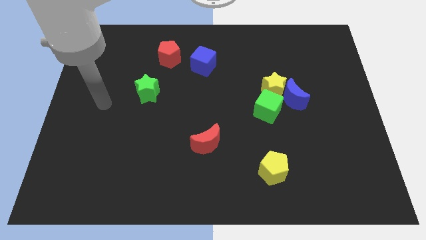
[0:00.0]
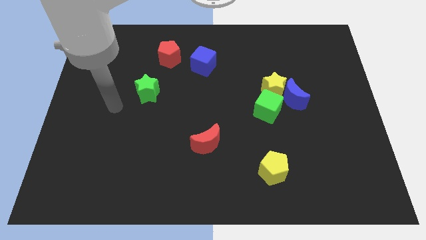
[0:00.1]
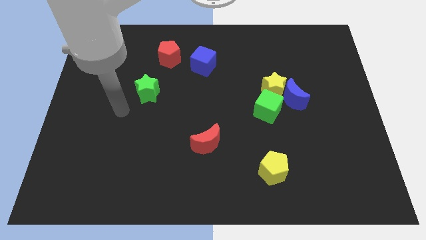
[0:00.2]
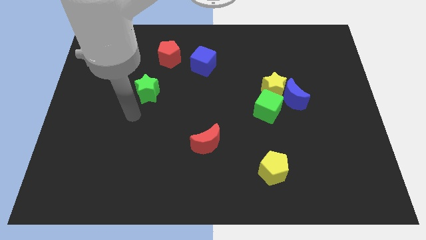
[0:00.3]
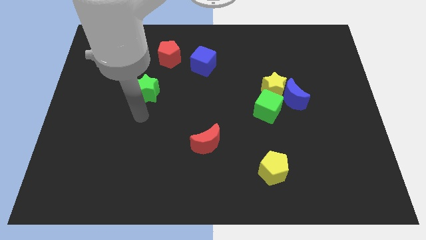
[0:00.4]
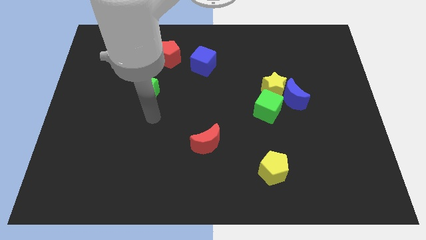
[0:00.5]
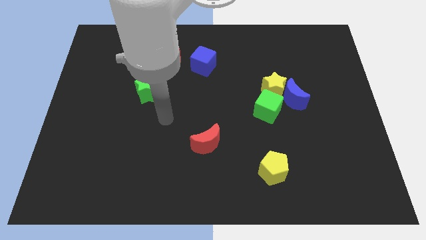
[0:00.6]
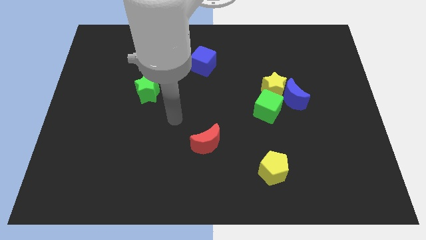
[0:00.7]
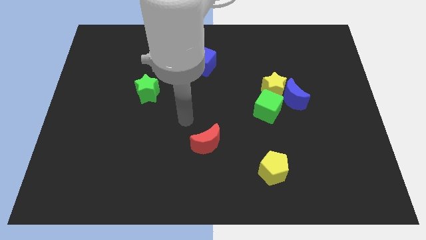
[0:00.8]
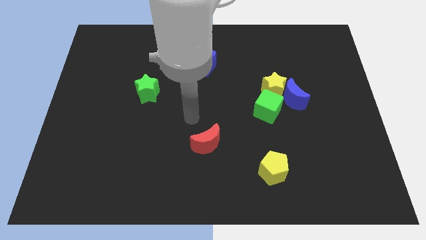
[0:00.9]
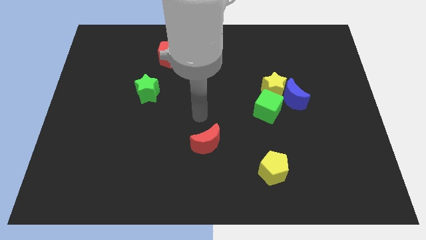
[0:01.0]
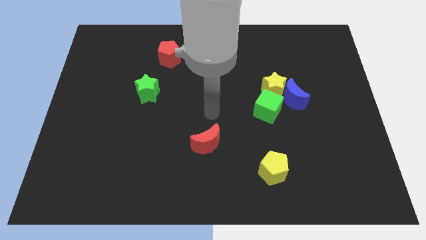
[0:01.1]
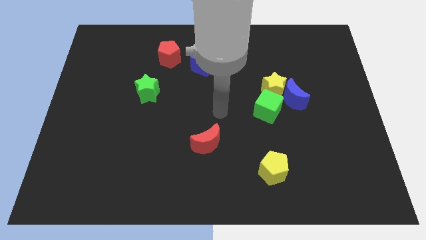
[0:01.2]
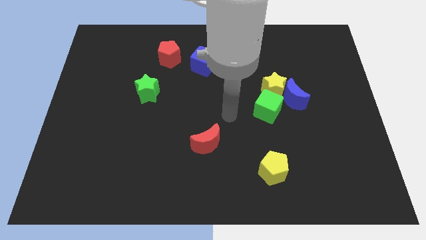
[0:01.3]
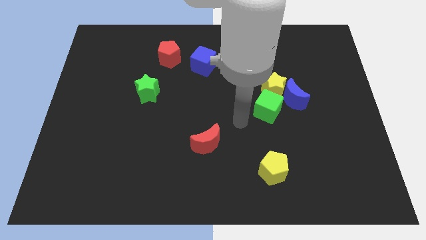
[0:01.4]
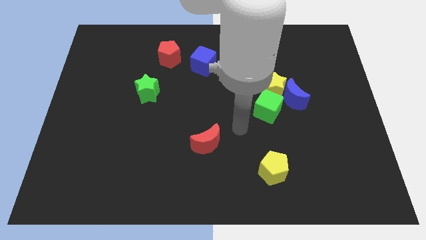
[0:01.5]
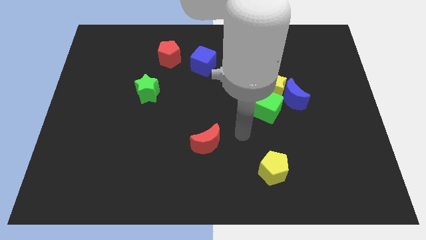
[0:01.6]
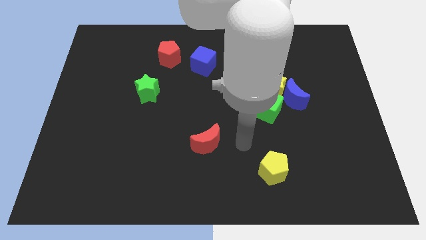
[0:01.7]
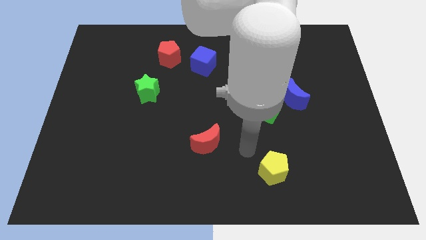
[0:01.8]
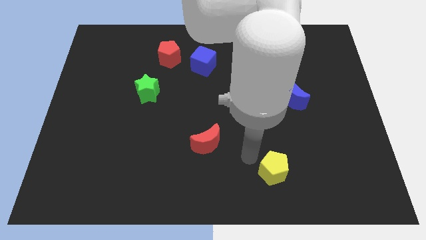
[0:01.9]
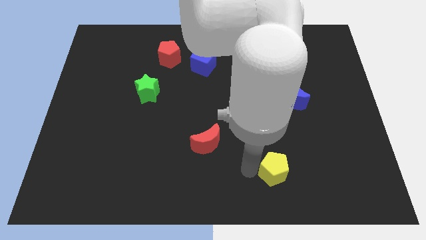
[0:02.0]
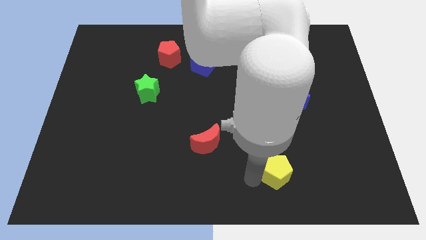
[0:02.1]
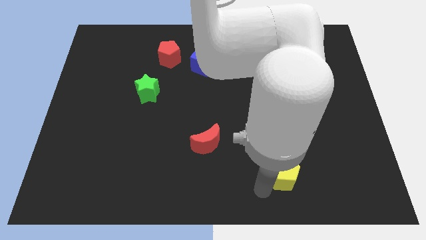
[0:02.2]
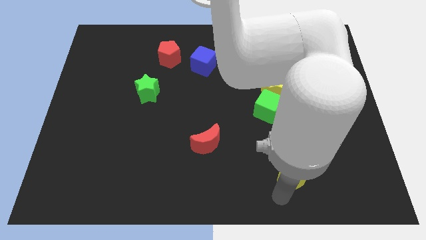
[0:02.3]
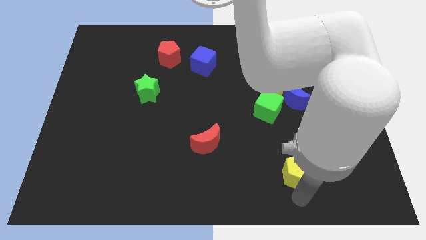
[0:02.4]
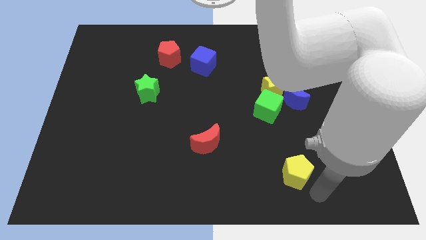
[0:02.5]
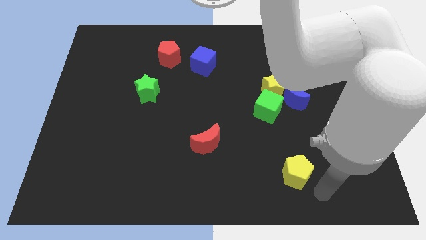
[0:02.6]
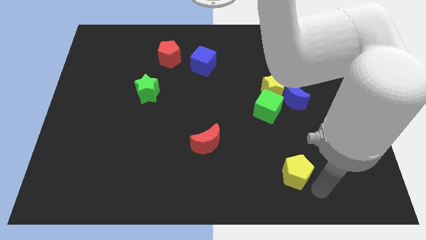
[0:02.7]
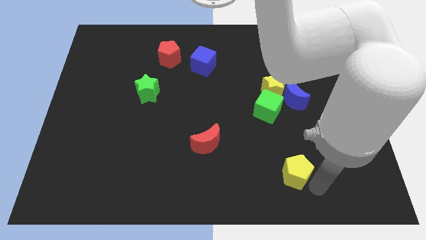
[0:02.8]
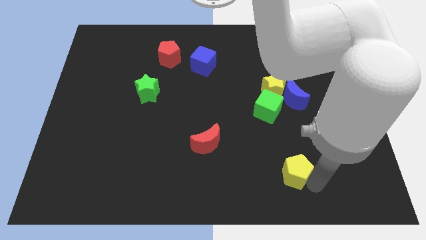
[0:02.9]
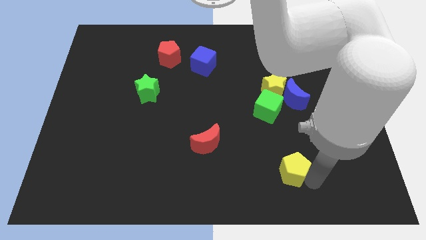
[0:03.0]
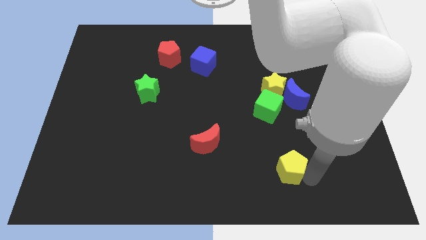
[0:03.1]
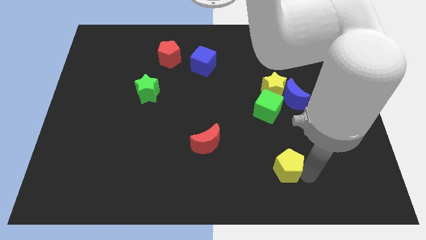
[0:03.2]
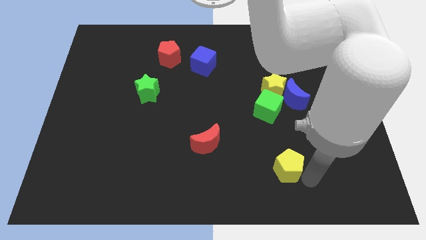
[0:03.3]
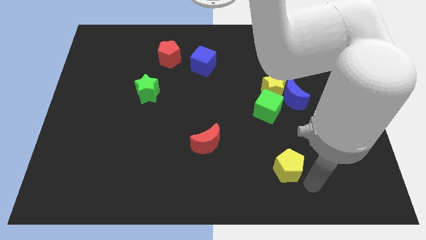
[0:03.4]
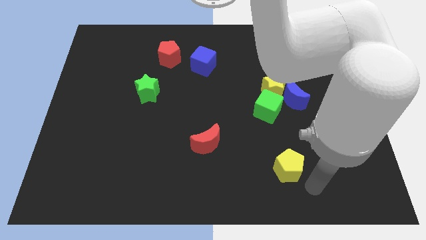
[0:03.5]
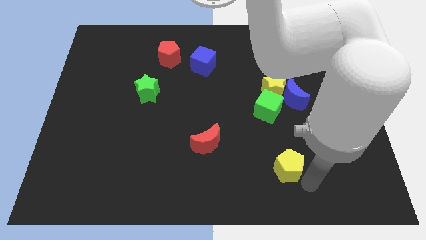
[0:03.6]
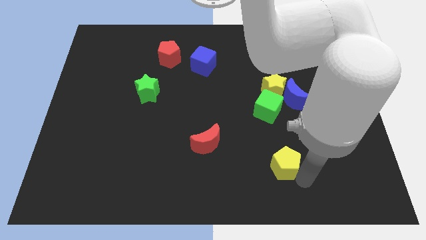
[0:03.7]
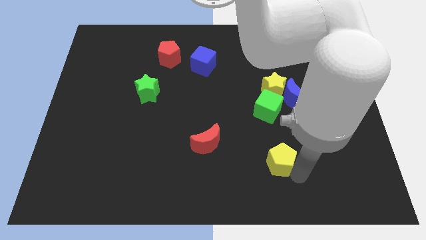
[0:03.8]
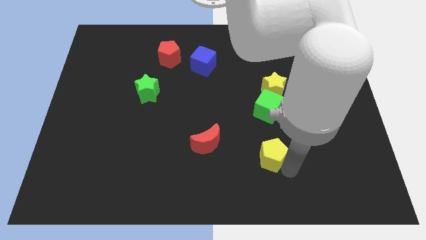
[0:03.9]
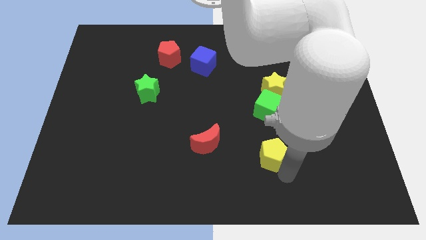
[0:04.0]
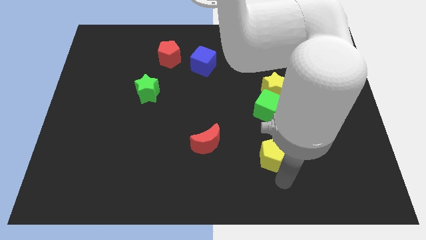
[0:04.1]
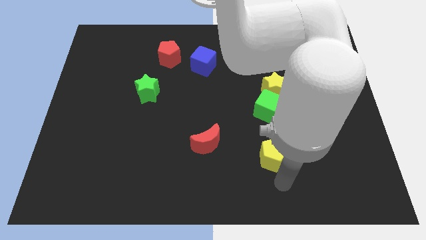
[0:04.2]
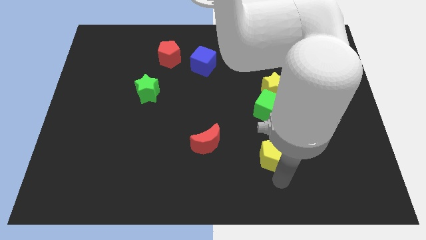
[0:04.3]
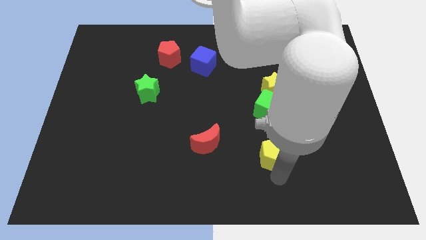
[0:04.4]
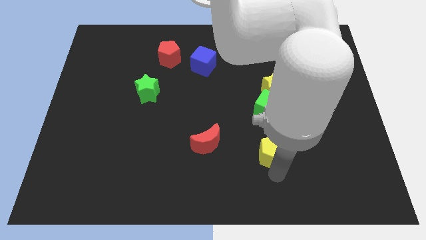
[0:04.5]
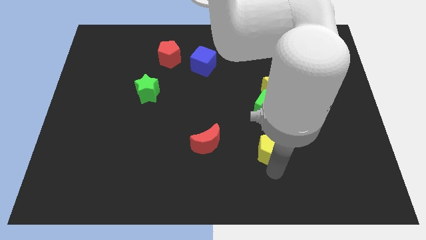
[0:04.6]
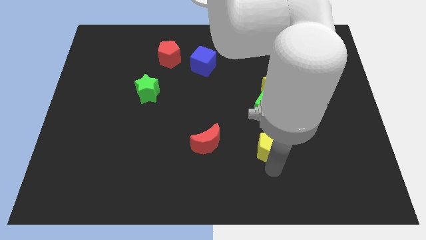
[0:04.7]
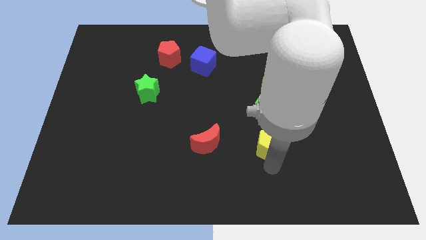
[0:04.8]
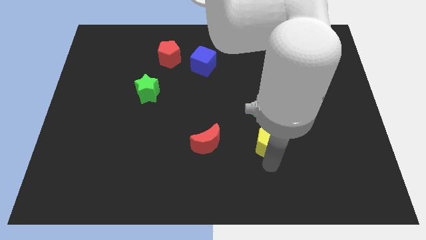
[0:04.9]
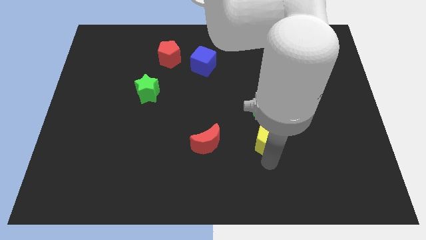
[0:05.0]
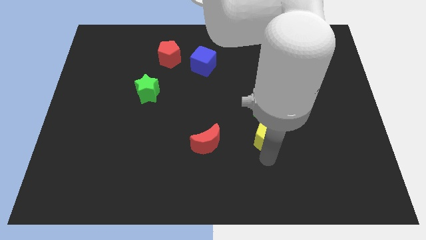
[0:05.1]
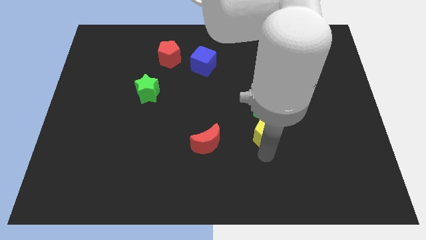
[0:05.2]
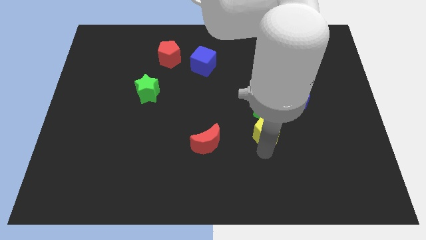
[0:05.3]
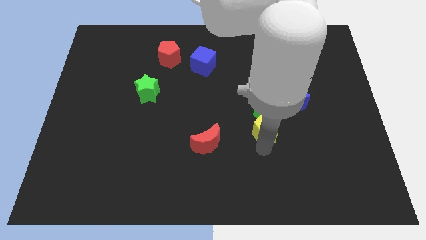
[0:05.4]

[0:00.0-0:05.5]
put the yellow pentagon towards the green cube

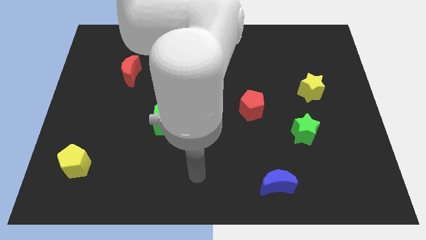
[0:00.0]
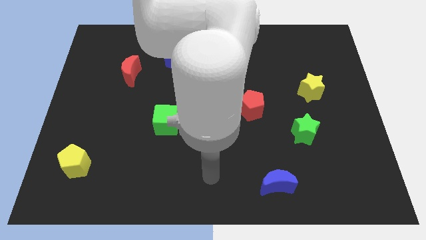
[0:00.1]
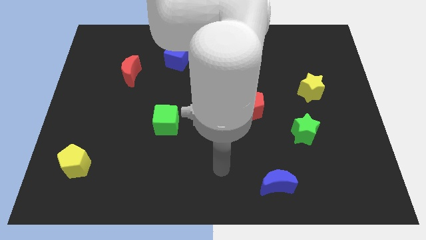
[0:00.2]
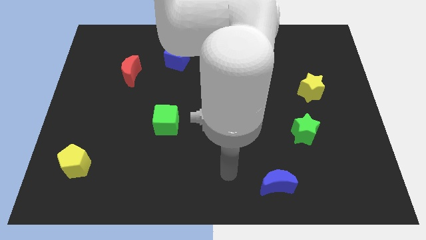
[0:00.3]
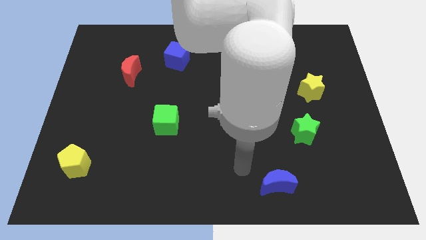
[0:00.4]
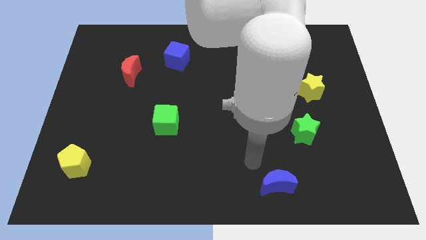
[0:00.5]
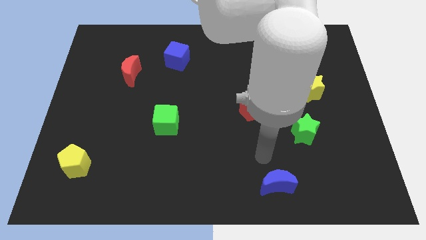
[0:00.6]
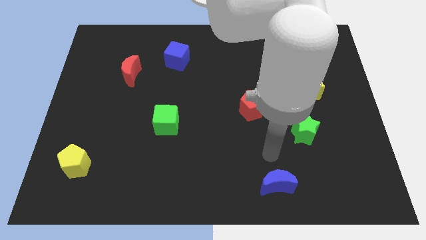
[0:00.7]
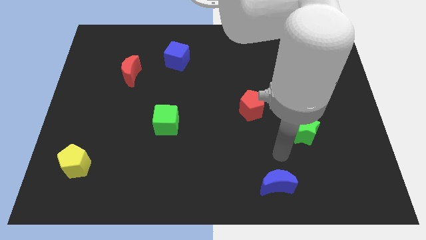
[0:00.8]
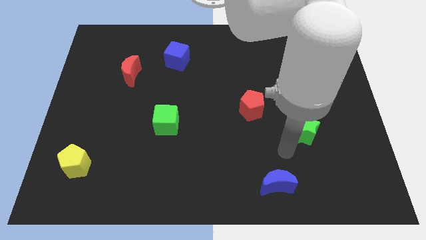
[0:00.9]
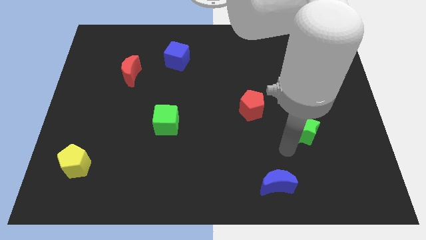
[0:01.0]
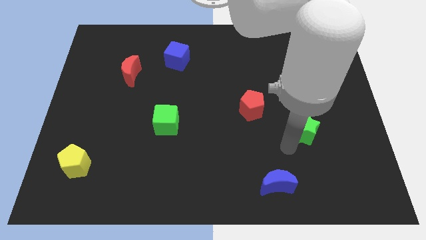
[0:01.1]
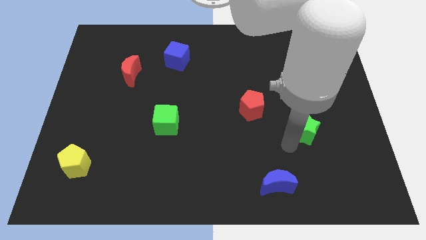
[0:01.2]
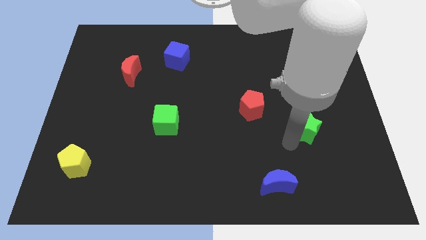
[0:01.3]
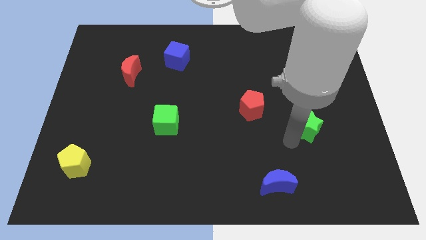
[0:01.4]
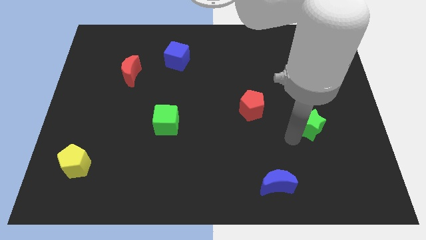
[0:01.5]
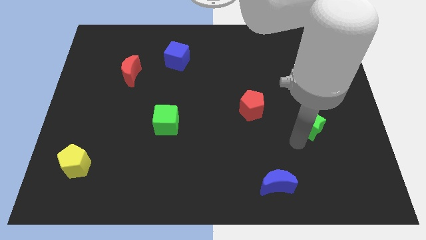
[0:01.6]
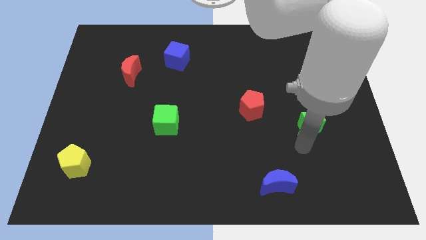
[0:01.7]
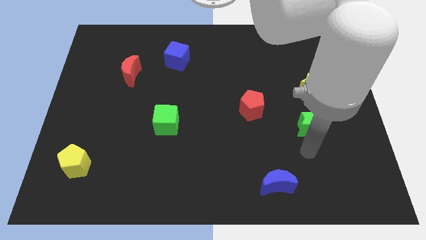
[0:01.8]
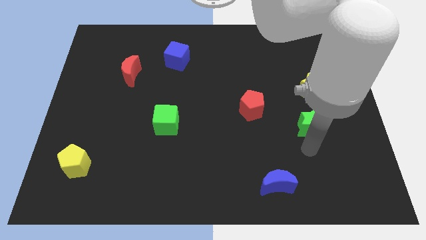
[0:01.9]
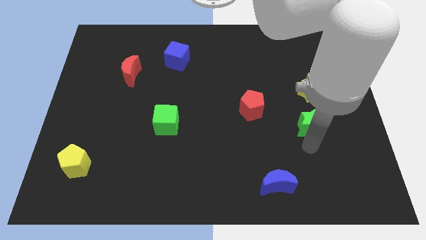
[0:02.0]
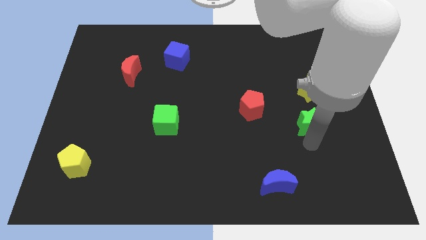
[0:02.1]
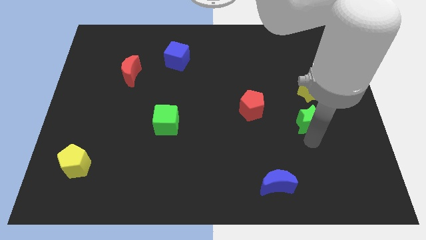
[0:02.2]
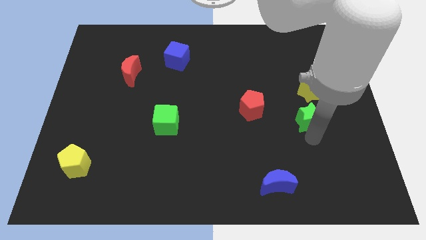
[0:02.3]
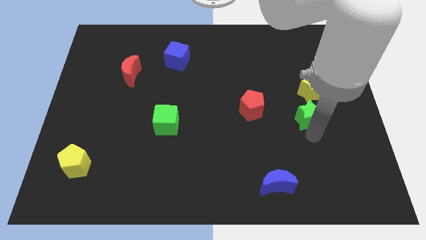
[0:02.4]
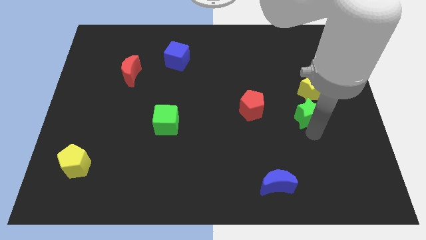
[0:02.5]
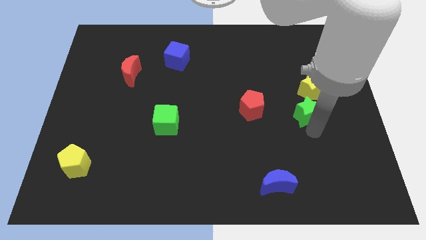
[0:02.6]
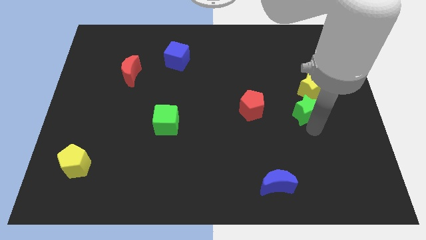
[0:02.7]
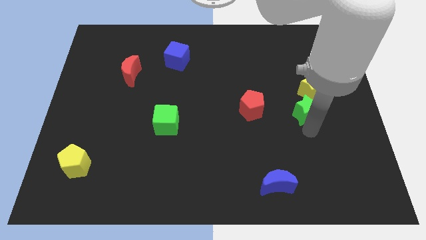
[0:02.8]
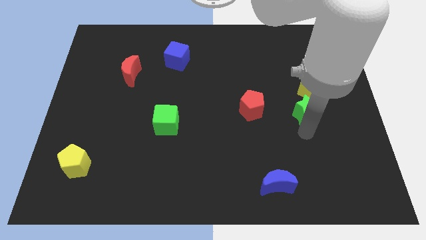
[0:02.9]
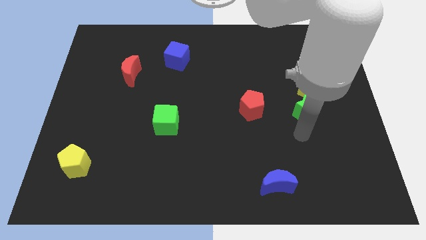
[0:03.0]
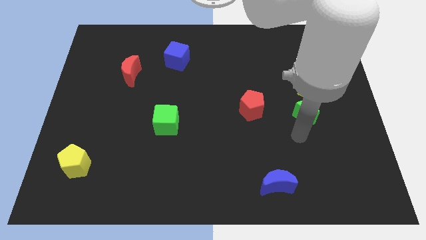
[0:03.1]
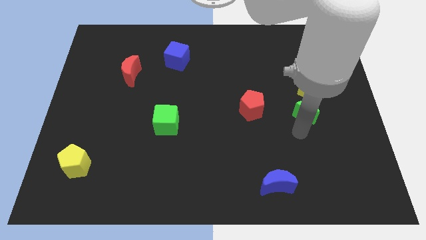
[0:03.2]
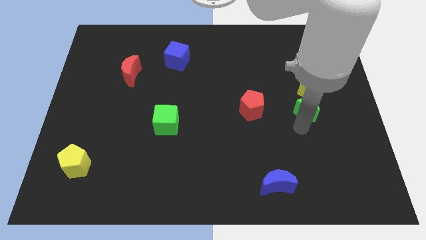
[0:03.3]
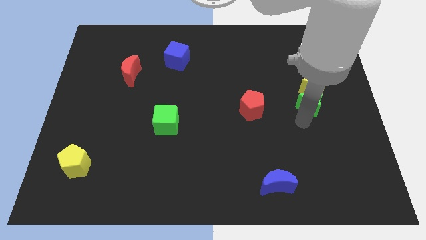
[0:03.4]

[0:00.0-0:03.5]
put the green star close to the yellow star
